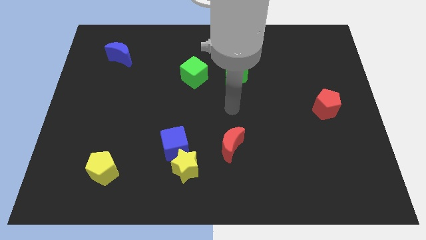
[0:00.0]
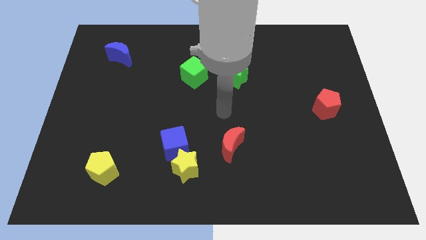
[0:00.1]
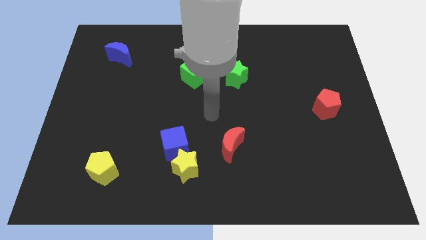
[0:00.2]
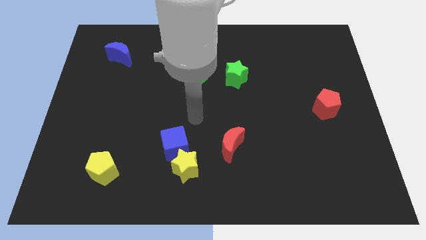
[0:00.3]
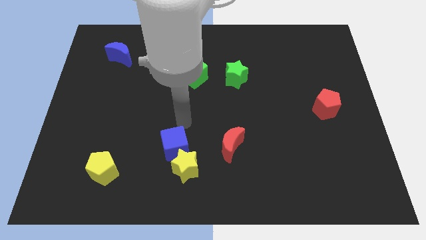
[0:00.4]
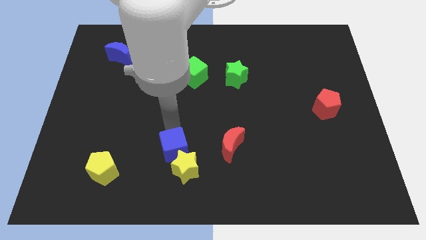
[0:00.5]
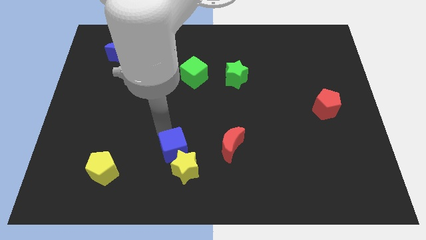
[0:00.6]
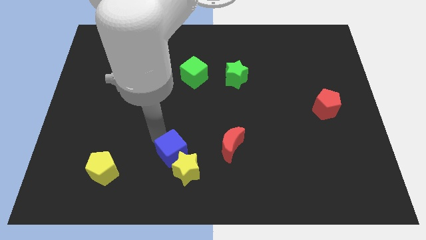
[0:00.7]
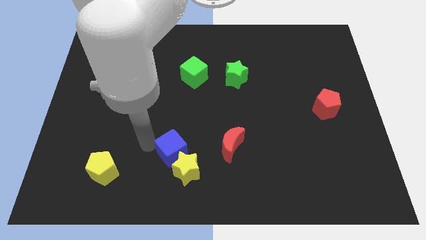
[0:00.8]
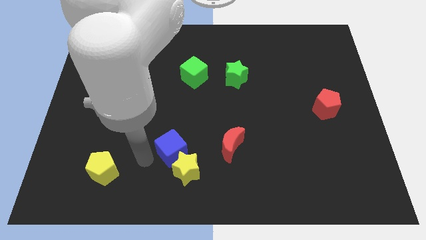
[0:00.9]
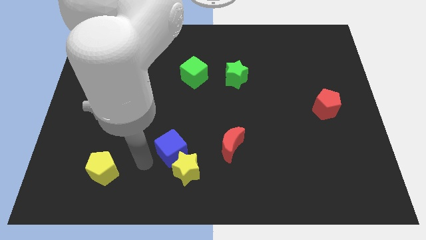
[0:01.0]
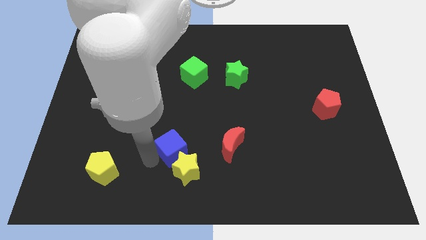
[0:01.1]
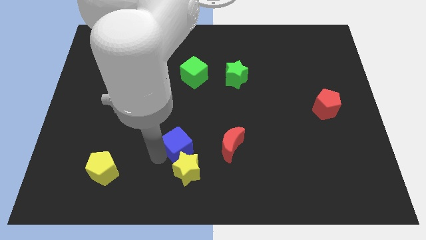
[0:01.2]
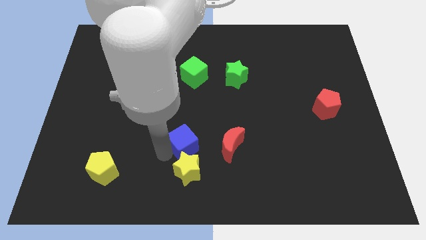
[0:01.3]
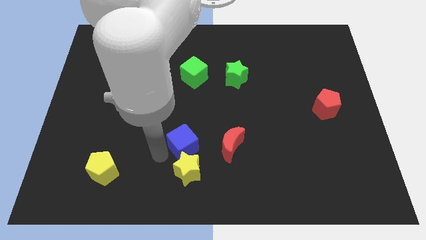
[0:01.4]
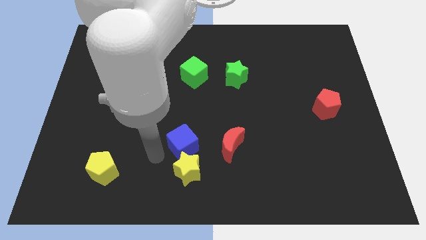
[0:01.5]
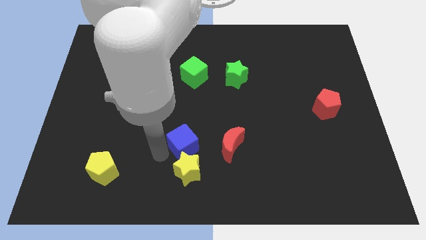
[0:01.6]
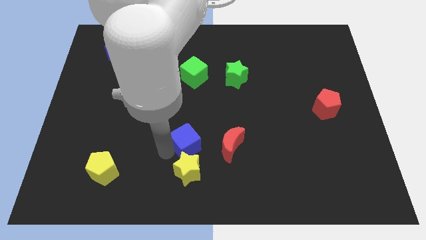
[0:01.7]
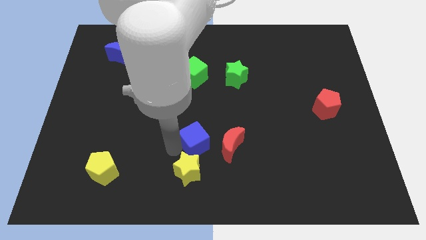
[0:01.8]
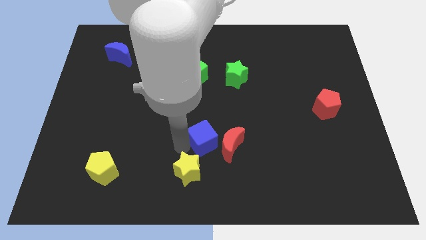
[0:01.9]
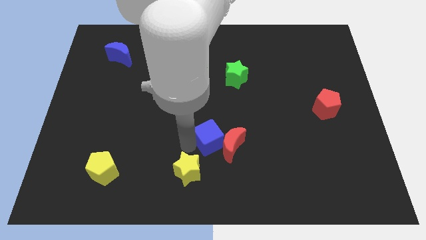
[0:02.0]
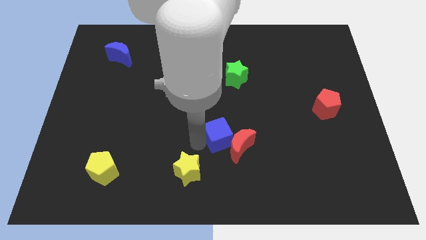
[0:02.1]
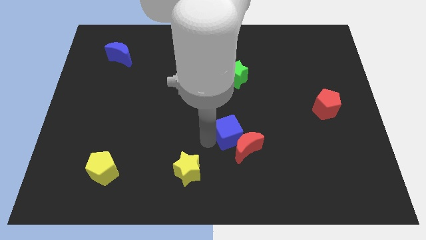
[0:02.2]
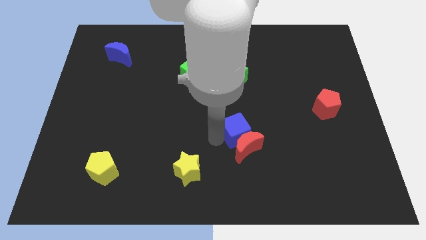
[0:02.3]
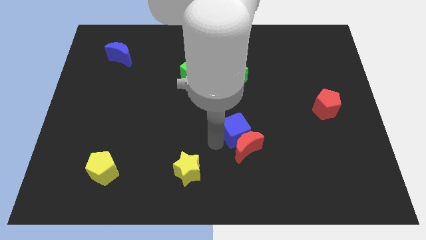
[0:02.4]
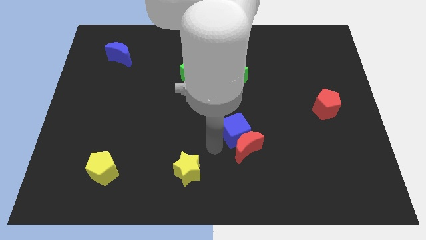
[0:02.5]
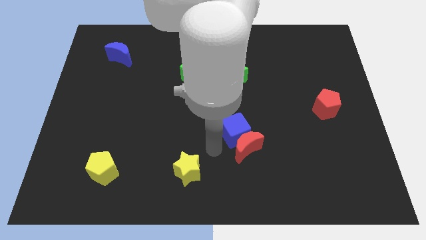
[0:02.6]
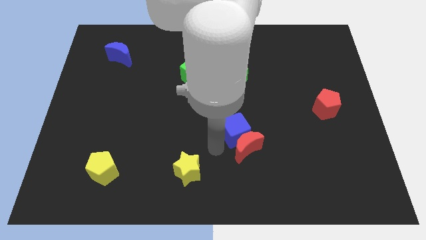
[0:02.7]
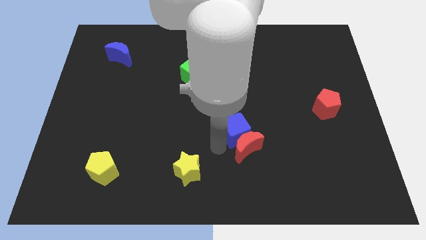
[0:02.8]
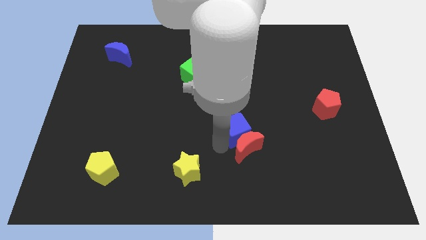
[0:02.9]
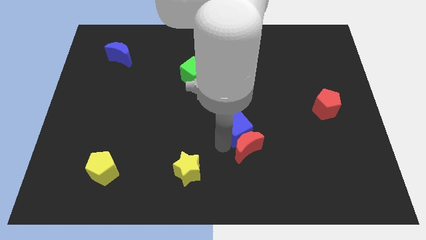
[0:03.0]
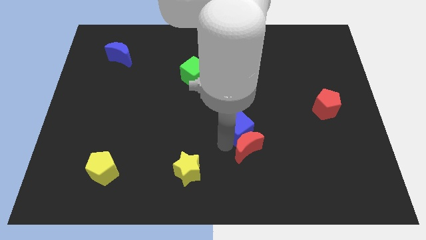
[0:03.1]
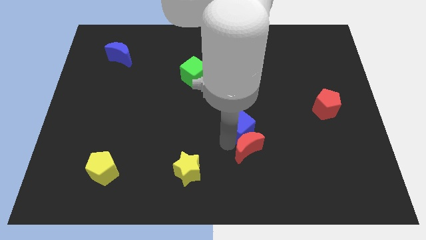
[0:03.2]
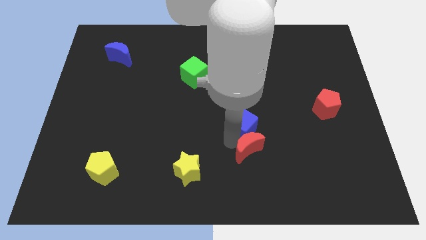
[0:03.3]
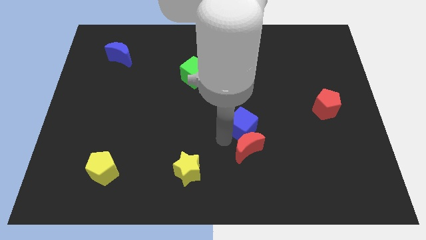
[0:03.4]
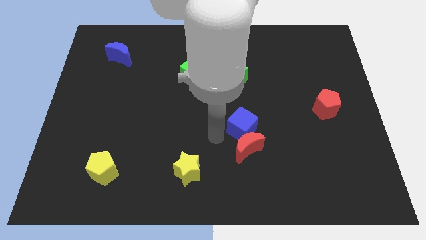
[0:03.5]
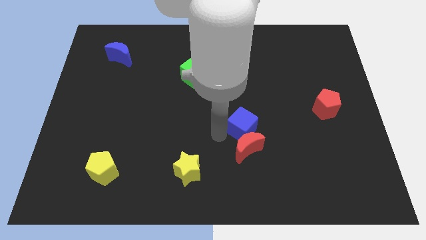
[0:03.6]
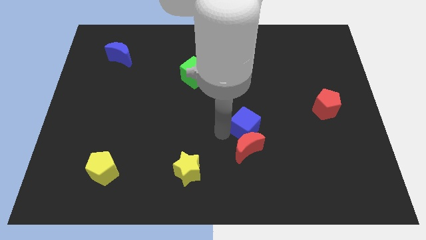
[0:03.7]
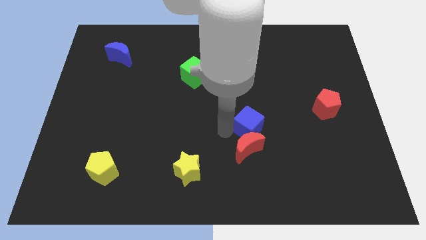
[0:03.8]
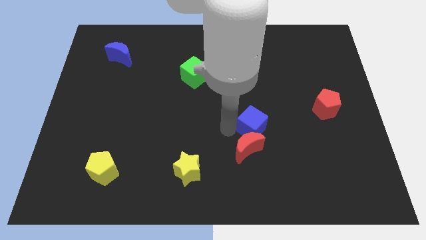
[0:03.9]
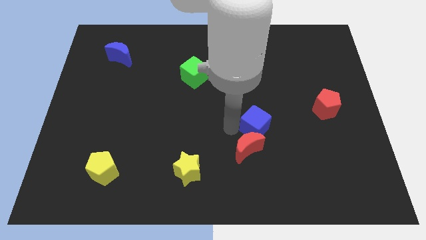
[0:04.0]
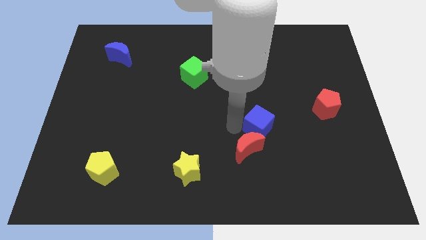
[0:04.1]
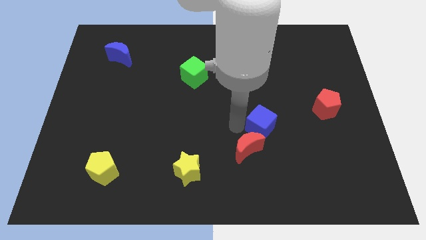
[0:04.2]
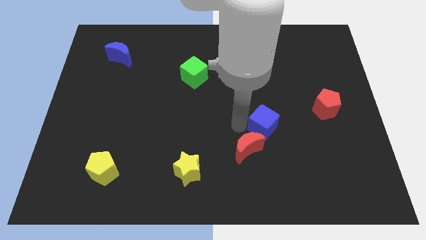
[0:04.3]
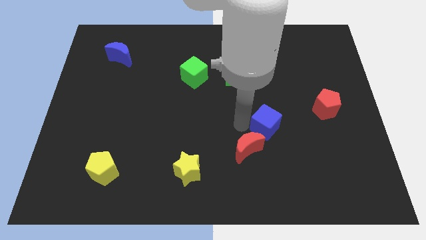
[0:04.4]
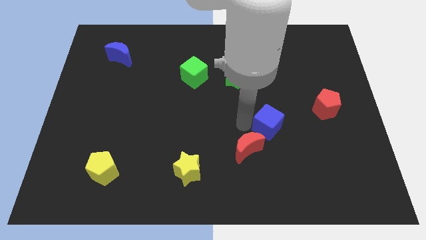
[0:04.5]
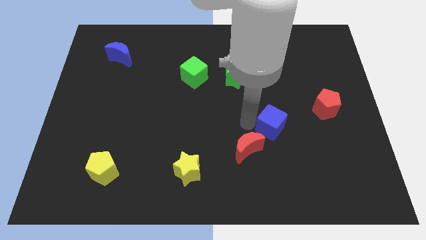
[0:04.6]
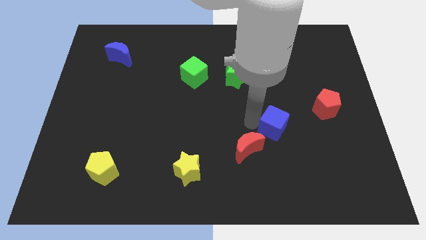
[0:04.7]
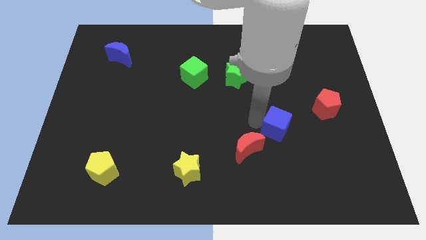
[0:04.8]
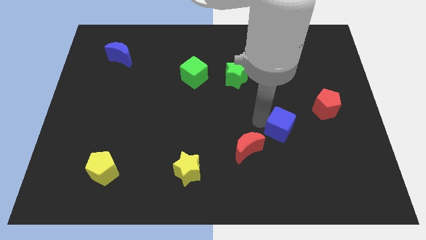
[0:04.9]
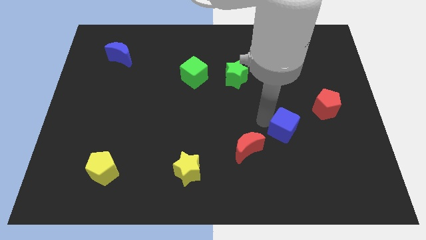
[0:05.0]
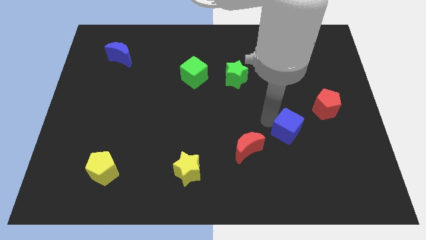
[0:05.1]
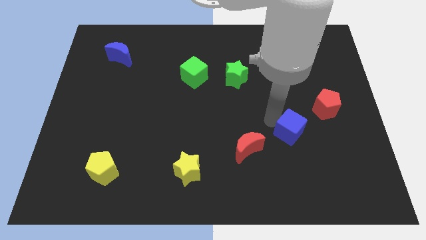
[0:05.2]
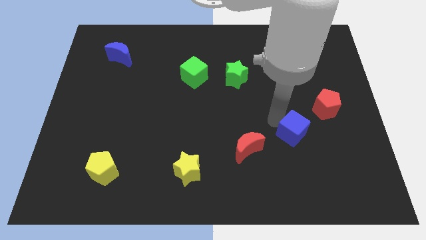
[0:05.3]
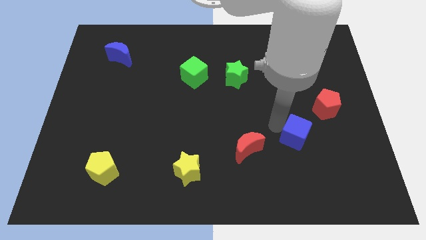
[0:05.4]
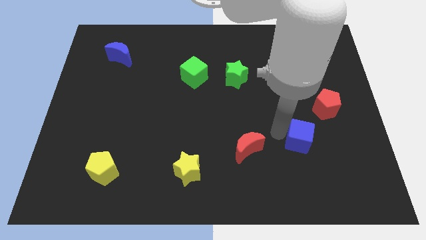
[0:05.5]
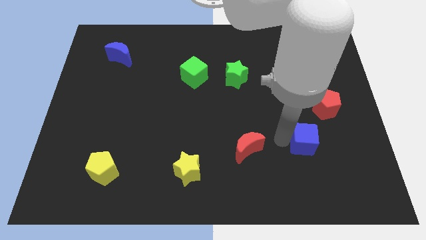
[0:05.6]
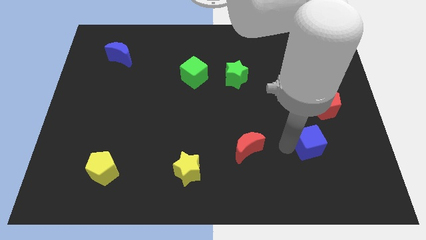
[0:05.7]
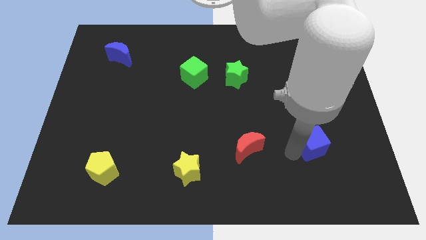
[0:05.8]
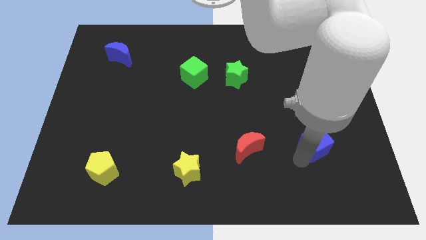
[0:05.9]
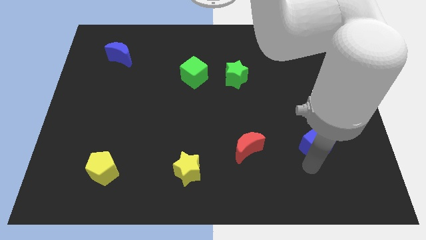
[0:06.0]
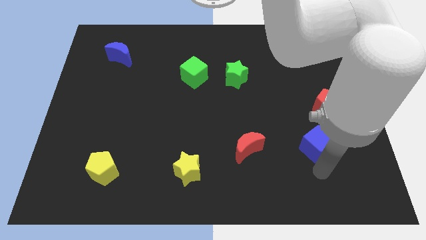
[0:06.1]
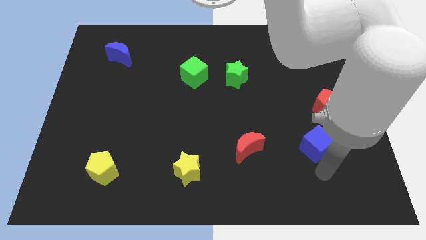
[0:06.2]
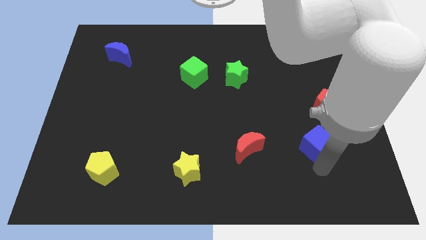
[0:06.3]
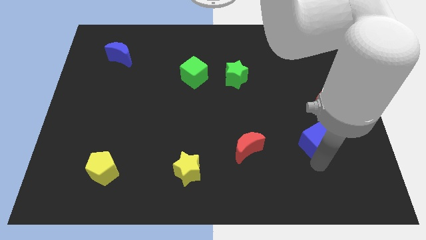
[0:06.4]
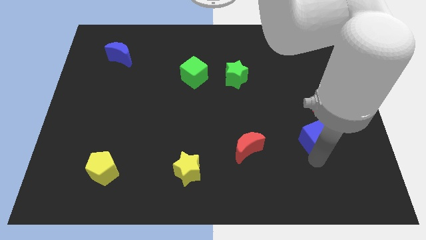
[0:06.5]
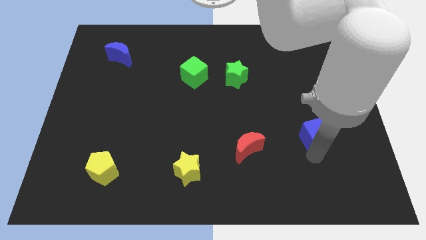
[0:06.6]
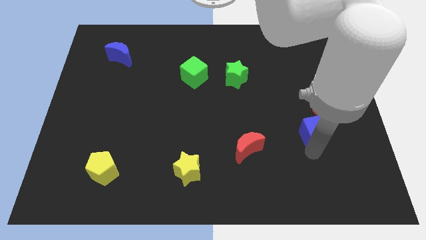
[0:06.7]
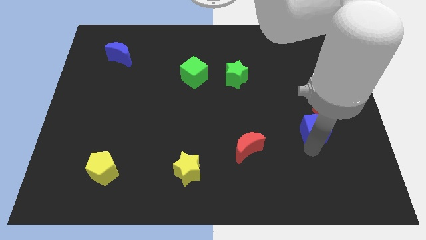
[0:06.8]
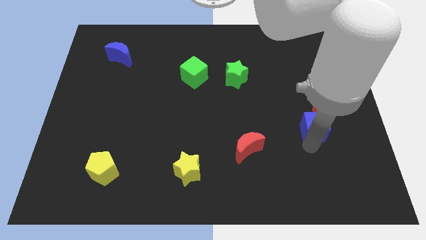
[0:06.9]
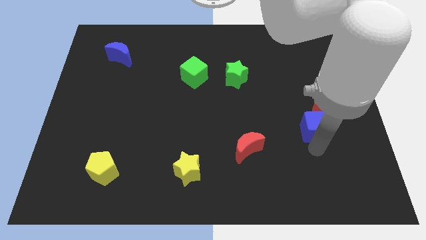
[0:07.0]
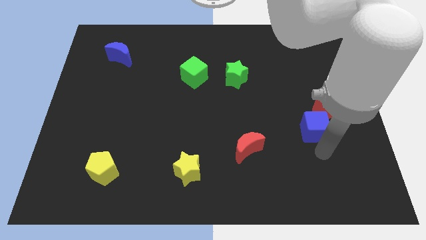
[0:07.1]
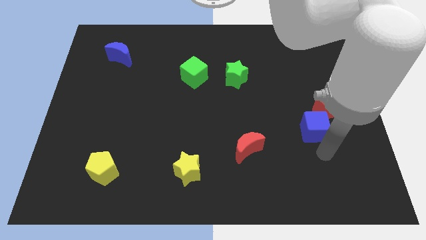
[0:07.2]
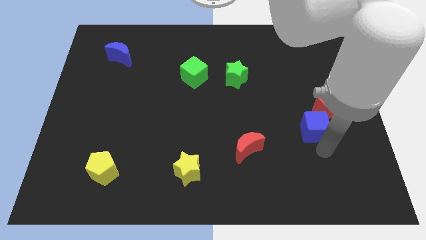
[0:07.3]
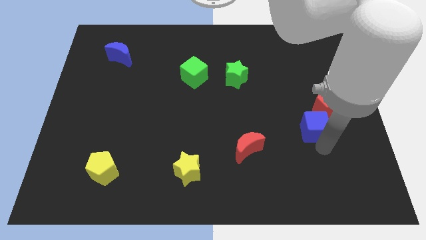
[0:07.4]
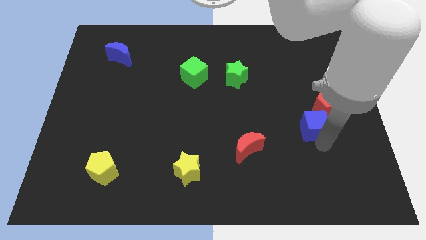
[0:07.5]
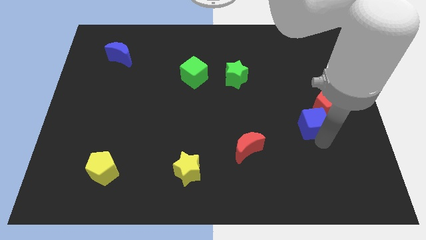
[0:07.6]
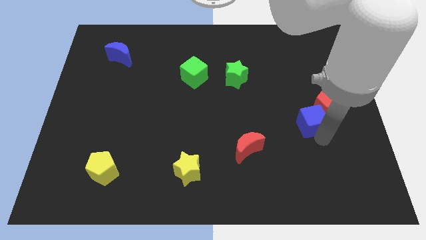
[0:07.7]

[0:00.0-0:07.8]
move the blue cube to the red pentagon
